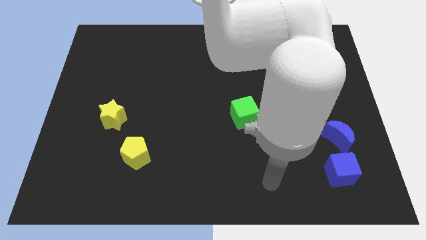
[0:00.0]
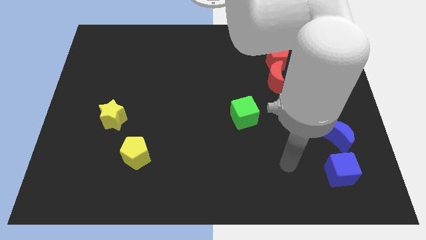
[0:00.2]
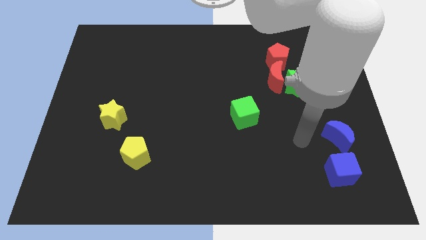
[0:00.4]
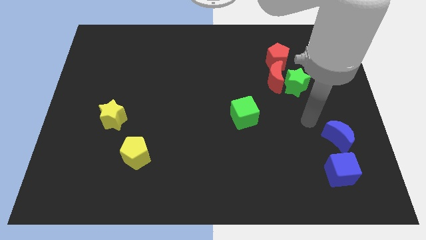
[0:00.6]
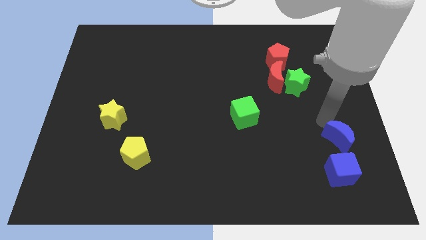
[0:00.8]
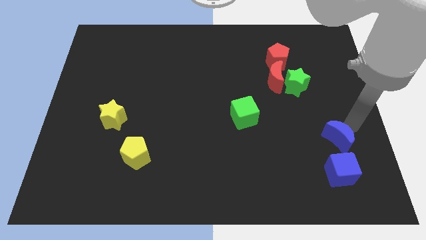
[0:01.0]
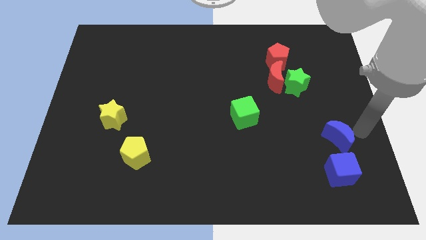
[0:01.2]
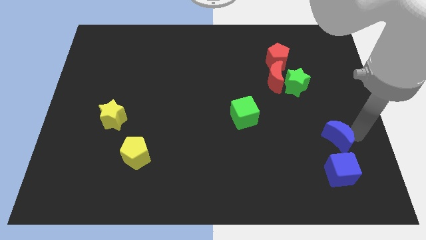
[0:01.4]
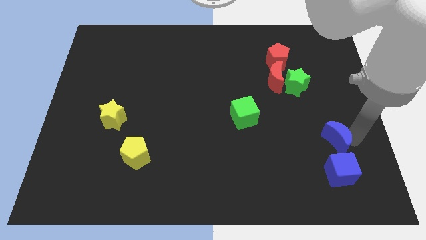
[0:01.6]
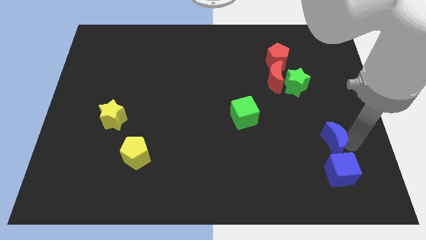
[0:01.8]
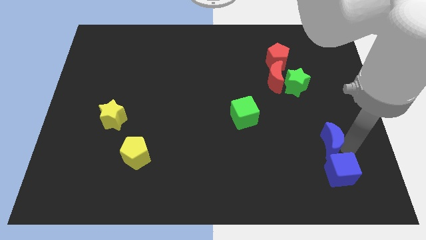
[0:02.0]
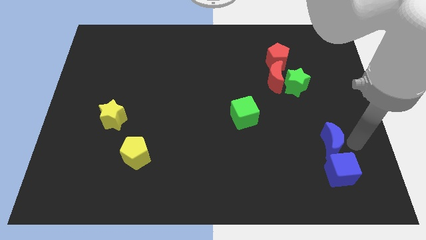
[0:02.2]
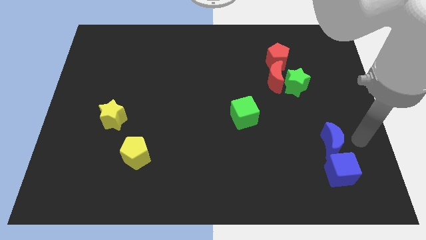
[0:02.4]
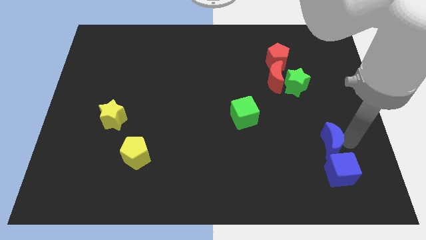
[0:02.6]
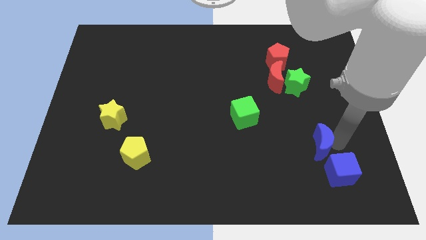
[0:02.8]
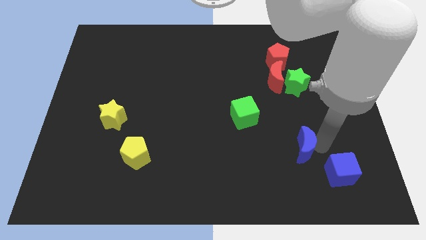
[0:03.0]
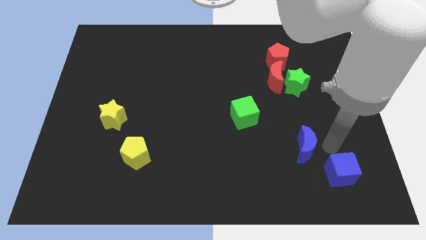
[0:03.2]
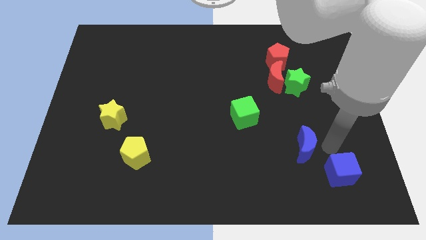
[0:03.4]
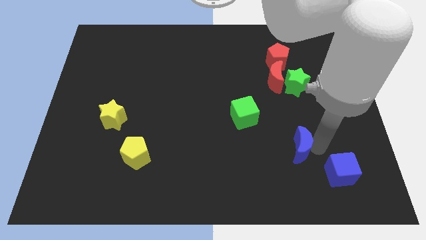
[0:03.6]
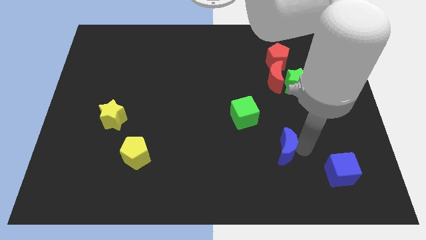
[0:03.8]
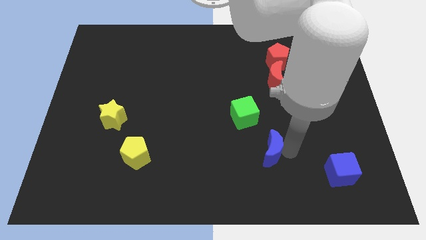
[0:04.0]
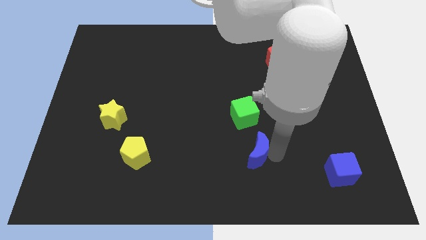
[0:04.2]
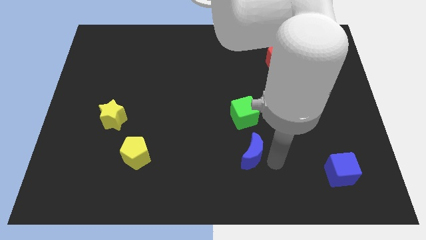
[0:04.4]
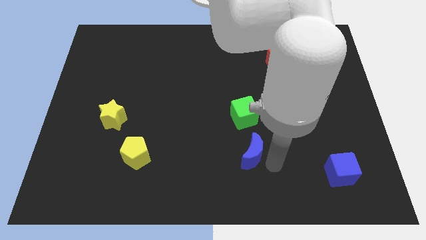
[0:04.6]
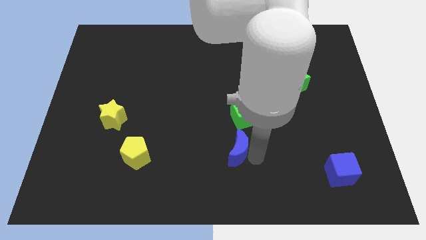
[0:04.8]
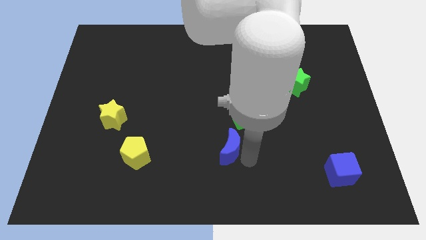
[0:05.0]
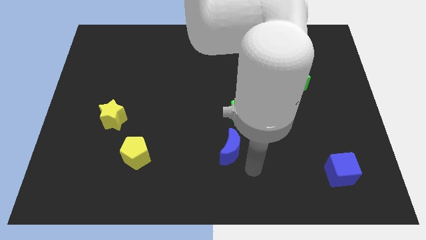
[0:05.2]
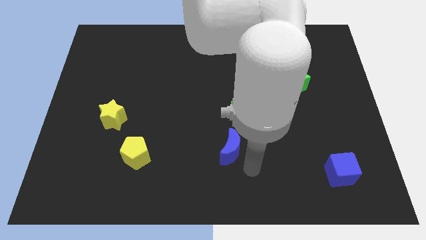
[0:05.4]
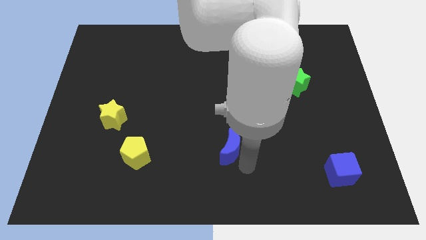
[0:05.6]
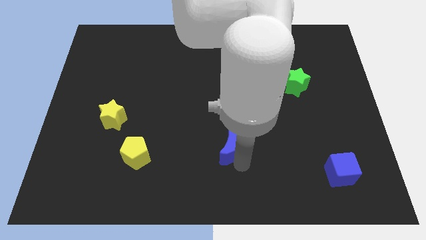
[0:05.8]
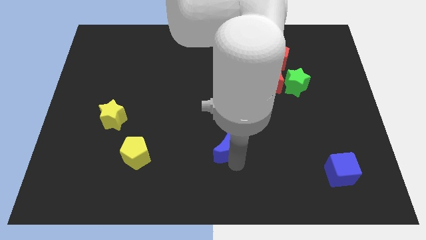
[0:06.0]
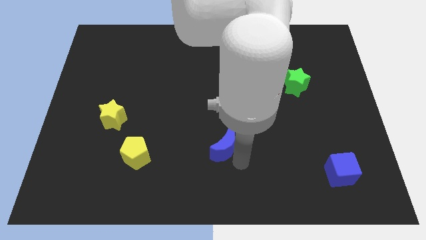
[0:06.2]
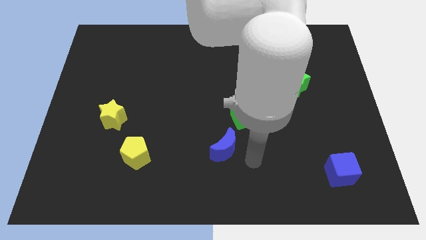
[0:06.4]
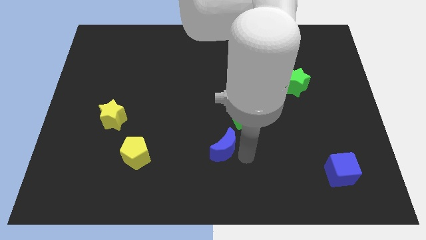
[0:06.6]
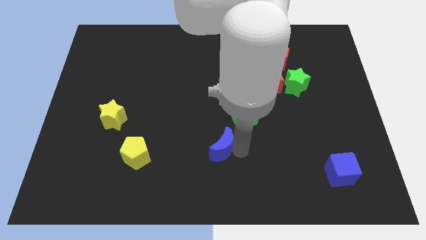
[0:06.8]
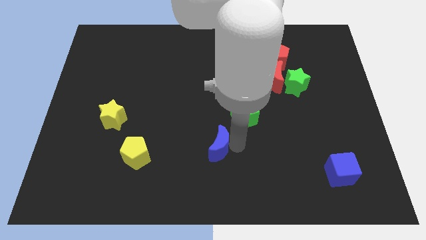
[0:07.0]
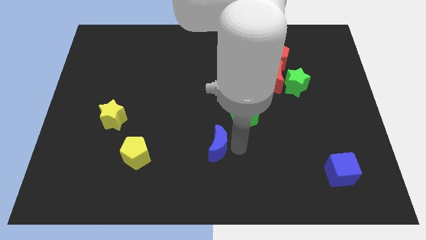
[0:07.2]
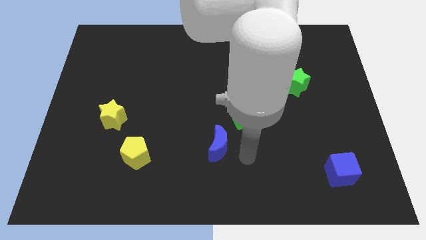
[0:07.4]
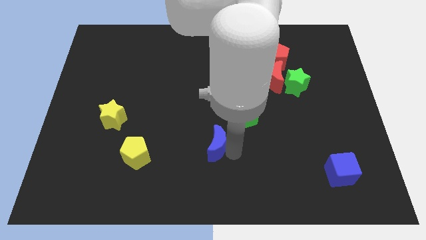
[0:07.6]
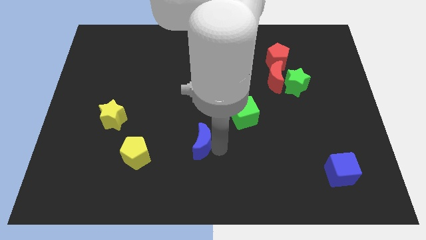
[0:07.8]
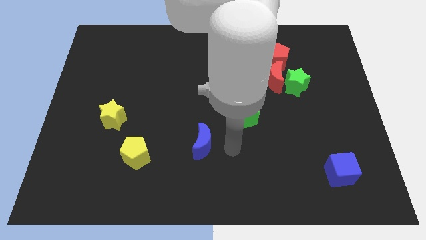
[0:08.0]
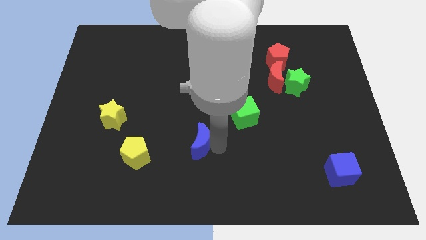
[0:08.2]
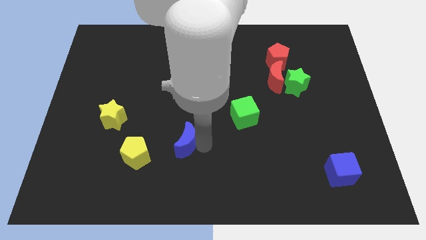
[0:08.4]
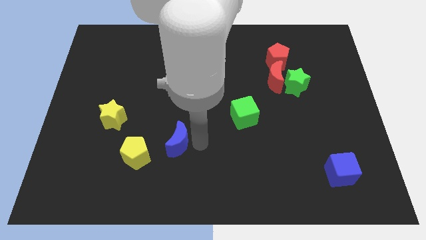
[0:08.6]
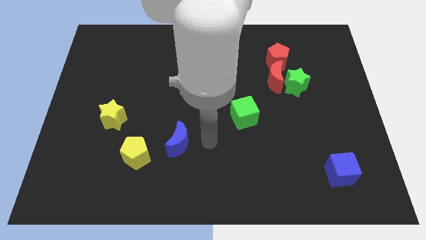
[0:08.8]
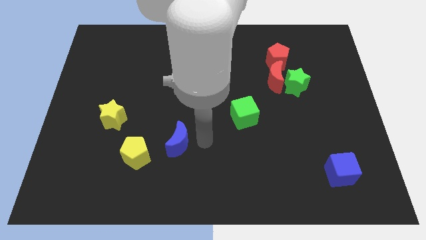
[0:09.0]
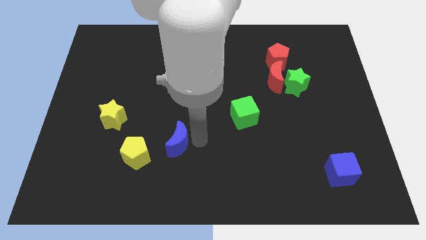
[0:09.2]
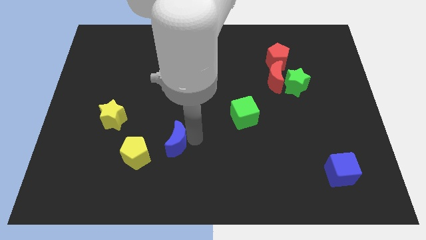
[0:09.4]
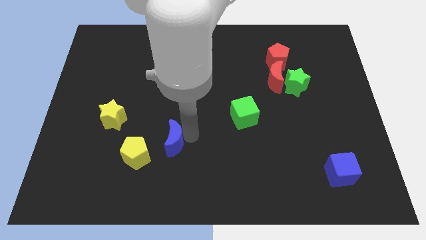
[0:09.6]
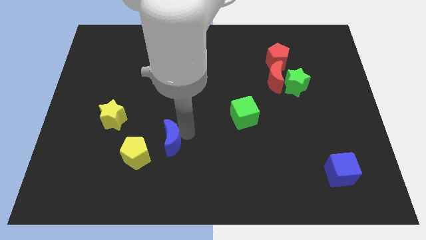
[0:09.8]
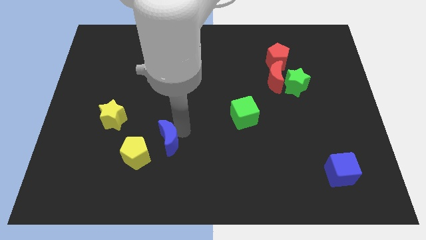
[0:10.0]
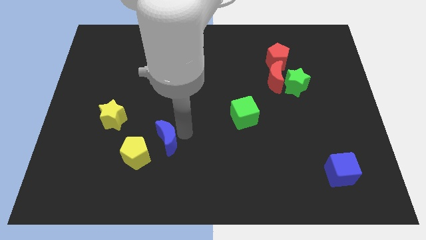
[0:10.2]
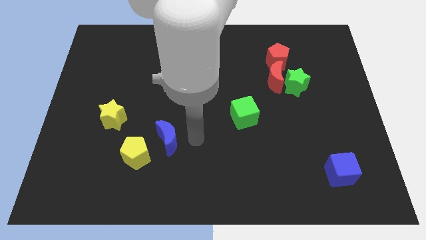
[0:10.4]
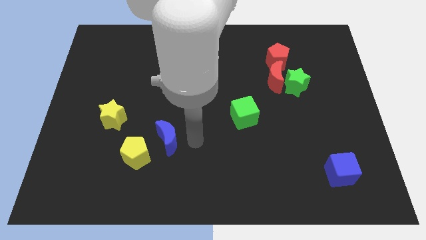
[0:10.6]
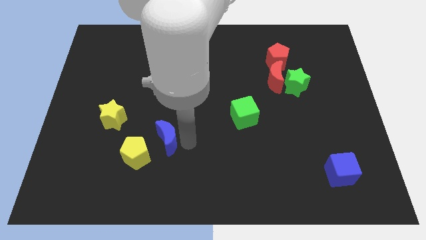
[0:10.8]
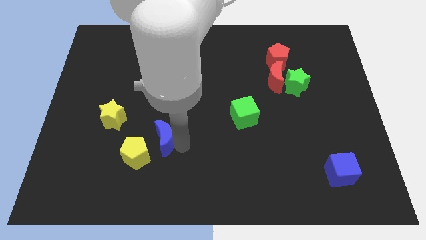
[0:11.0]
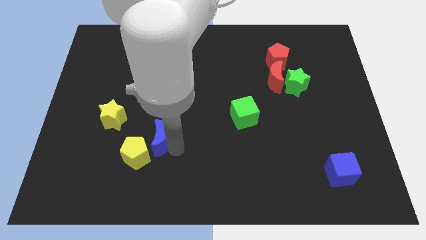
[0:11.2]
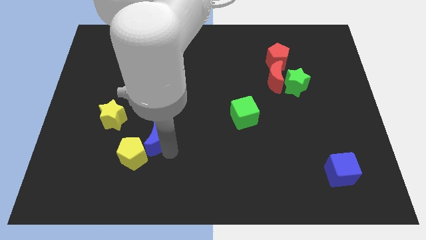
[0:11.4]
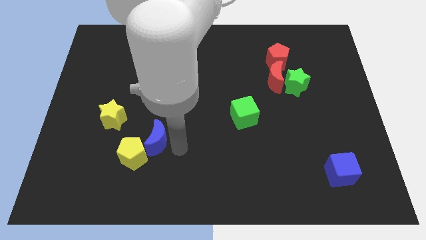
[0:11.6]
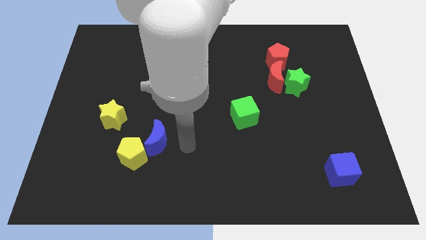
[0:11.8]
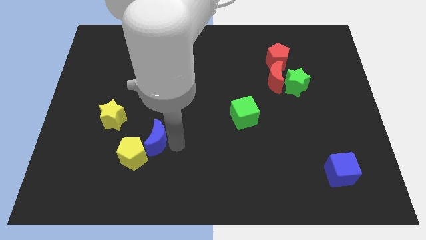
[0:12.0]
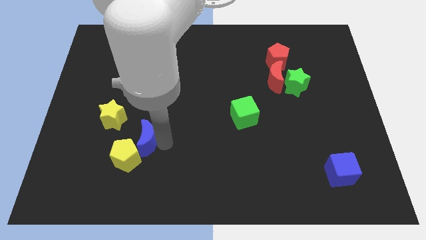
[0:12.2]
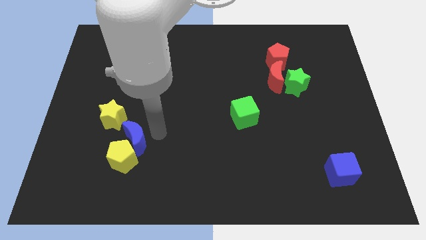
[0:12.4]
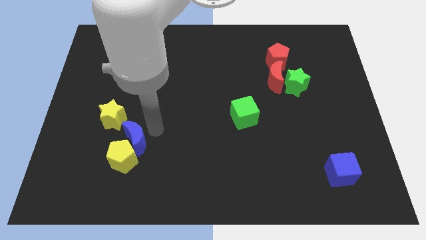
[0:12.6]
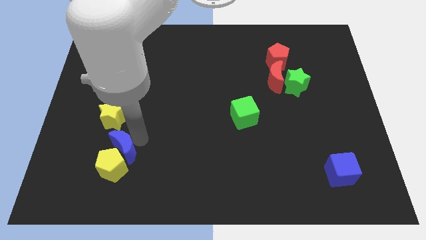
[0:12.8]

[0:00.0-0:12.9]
slide the blue moon below the yellow star
